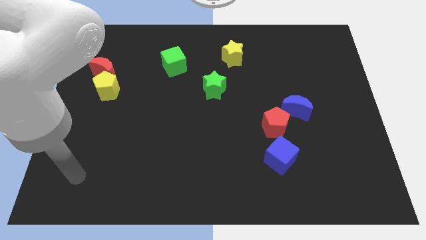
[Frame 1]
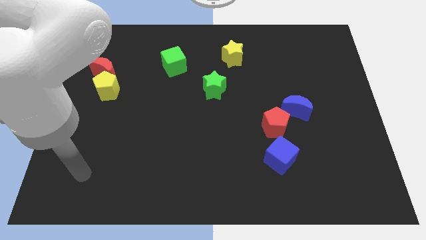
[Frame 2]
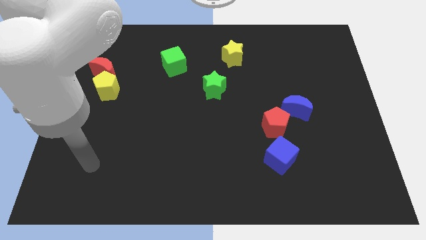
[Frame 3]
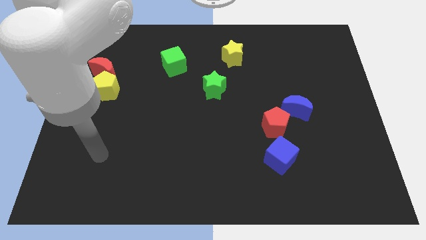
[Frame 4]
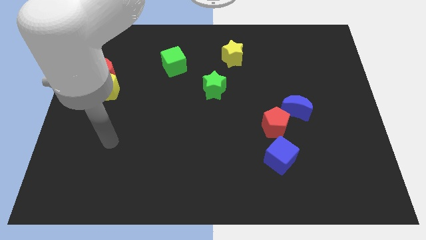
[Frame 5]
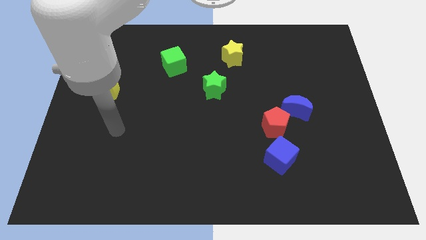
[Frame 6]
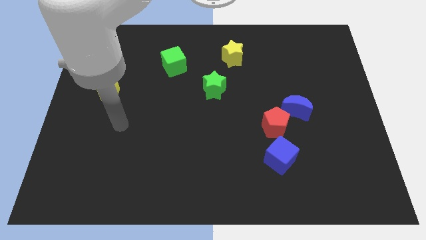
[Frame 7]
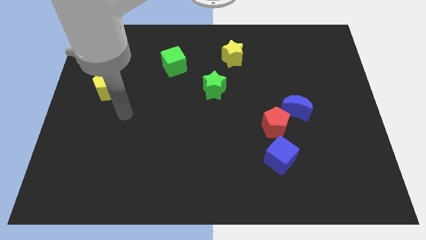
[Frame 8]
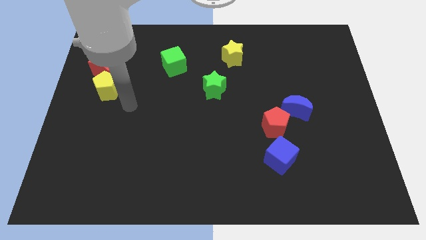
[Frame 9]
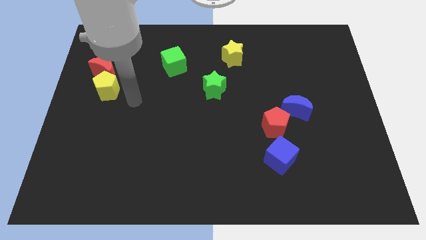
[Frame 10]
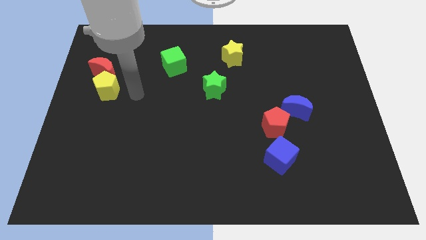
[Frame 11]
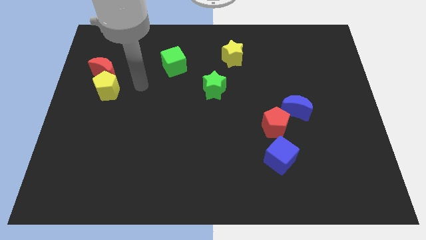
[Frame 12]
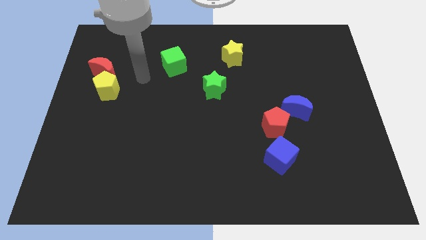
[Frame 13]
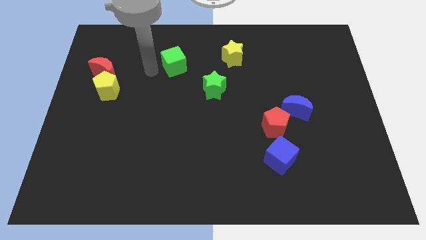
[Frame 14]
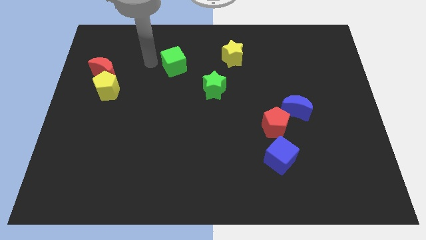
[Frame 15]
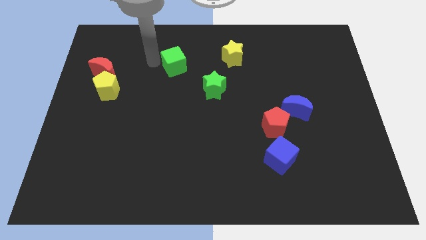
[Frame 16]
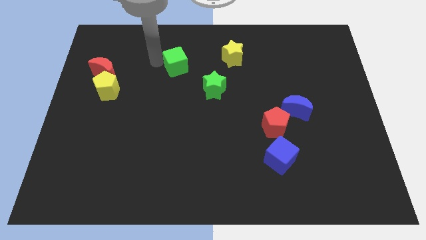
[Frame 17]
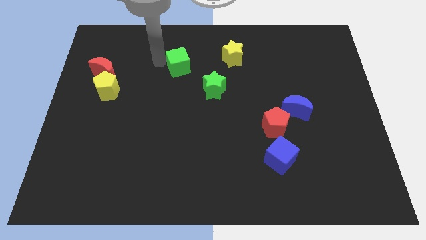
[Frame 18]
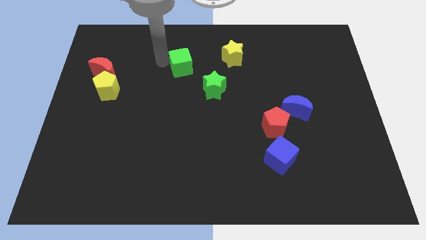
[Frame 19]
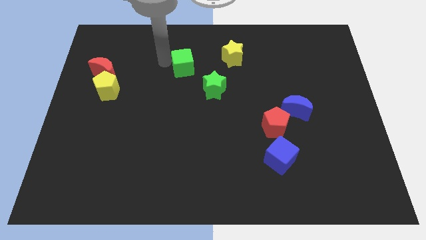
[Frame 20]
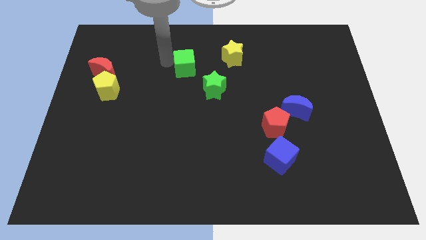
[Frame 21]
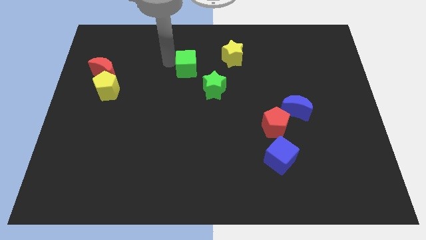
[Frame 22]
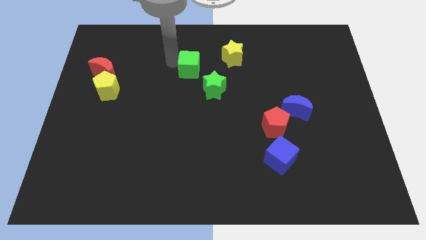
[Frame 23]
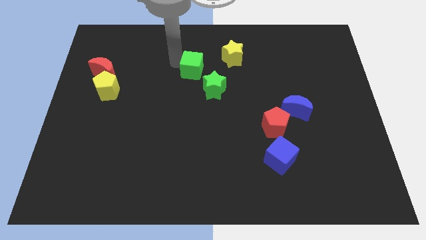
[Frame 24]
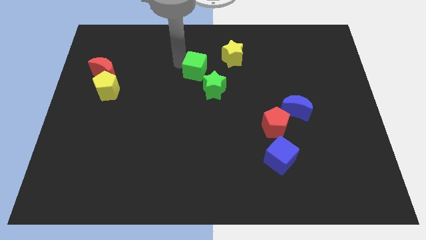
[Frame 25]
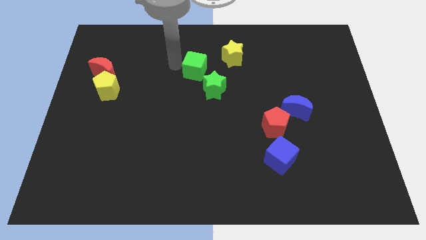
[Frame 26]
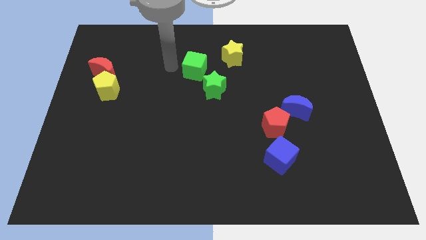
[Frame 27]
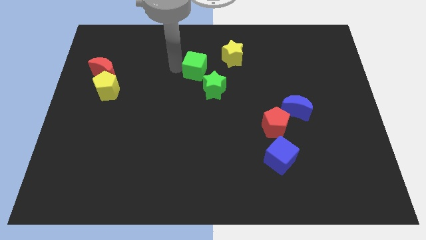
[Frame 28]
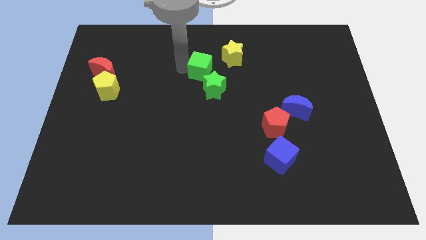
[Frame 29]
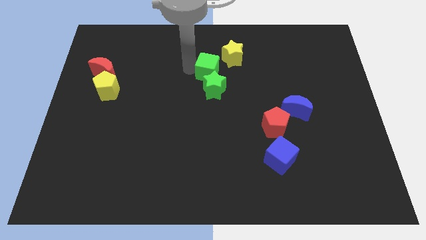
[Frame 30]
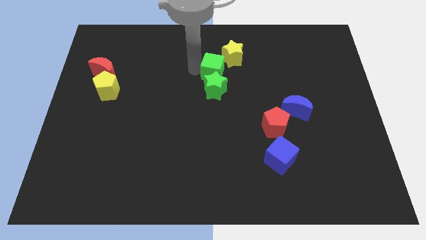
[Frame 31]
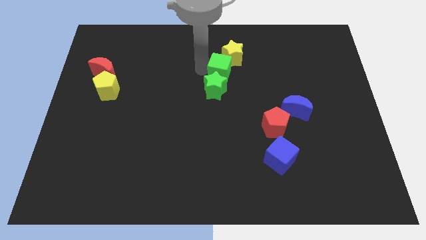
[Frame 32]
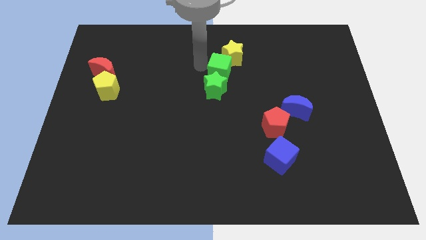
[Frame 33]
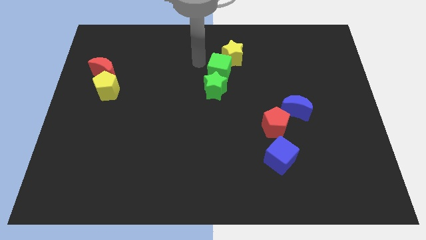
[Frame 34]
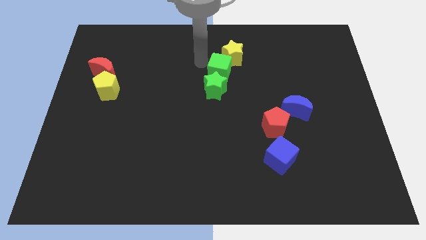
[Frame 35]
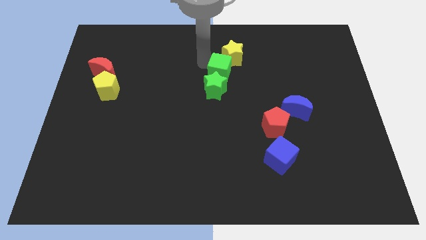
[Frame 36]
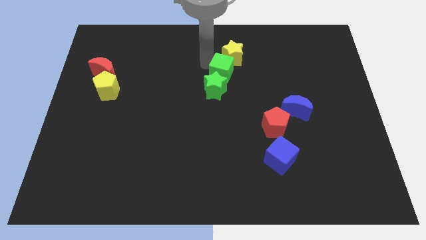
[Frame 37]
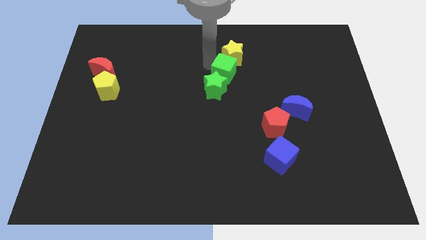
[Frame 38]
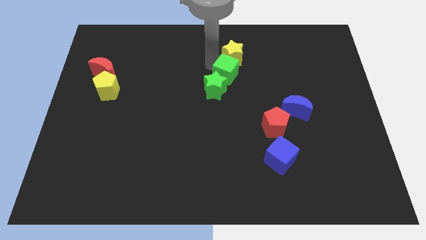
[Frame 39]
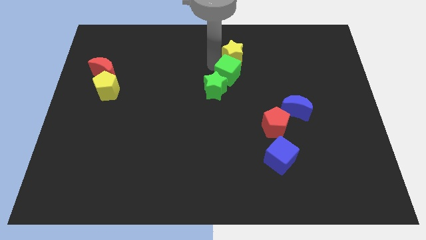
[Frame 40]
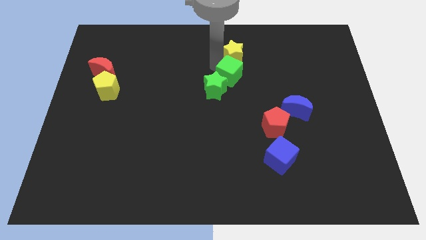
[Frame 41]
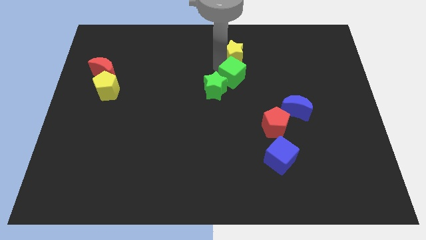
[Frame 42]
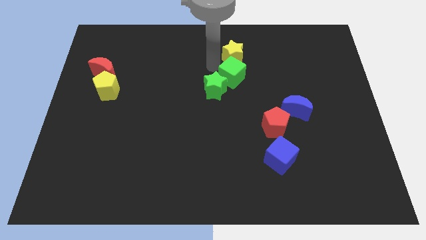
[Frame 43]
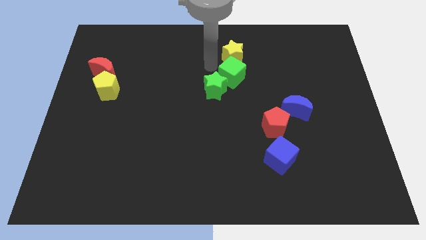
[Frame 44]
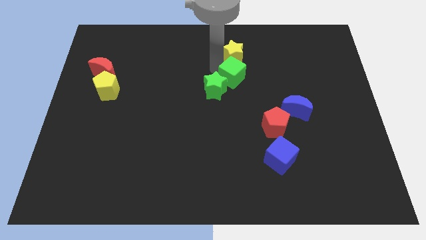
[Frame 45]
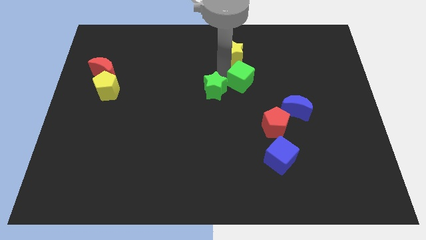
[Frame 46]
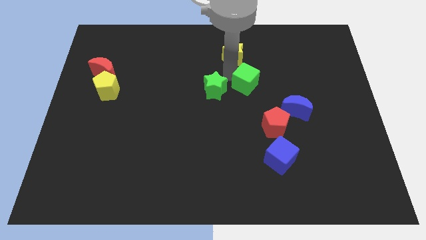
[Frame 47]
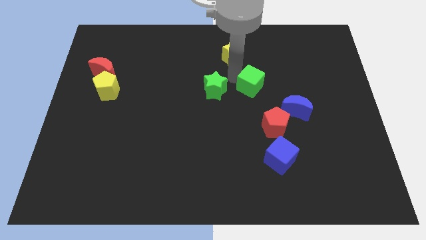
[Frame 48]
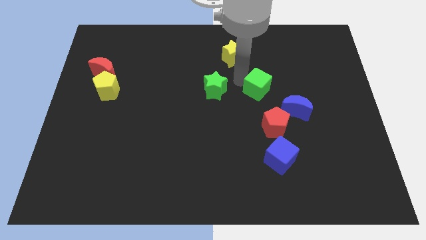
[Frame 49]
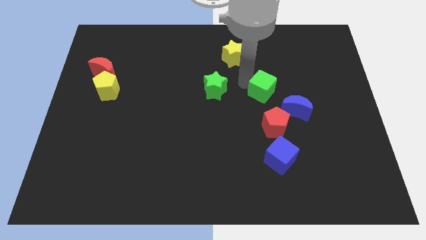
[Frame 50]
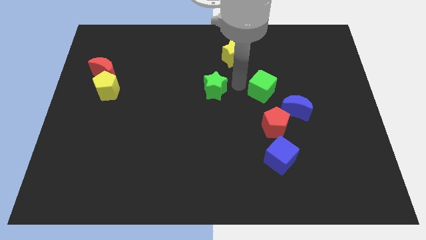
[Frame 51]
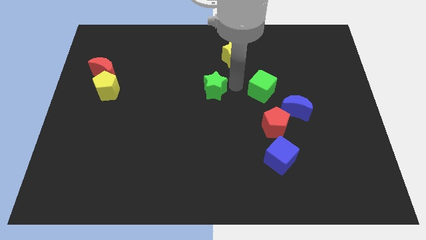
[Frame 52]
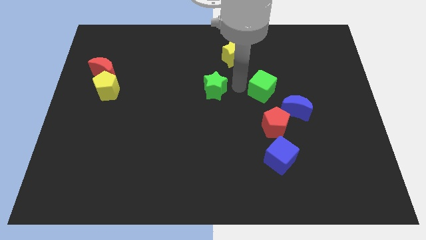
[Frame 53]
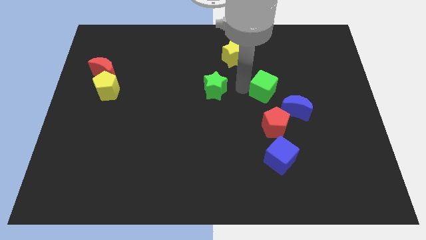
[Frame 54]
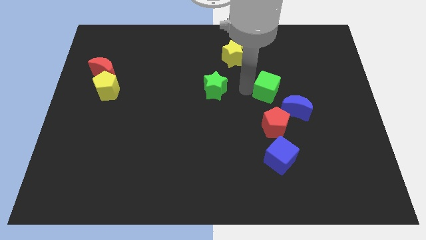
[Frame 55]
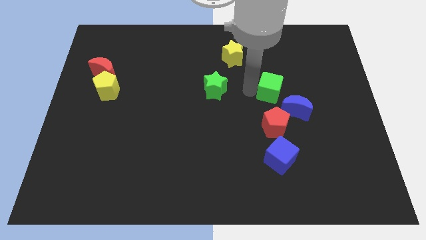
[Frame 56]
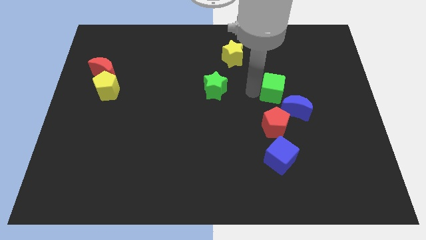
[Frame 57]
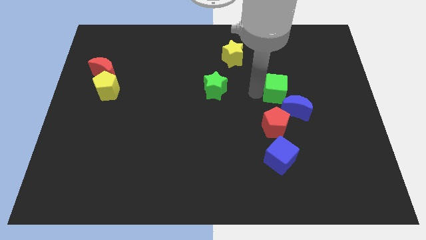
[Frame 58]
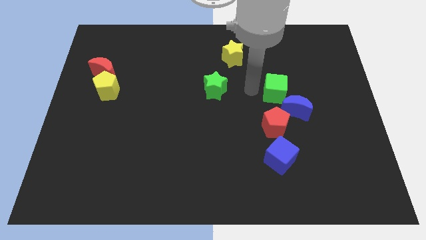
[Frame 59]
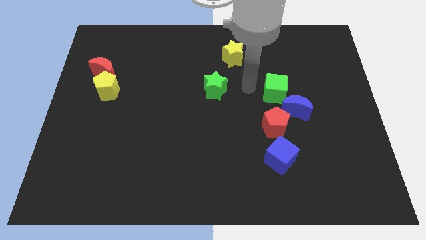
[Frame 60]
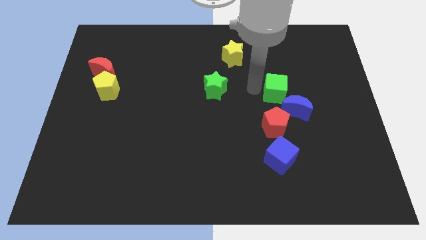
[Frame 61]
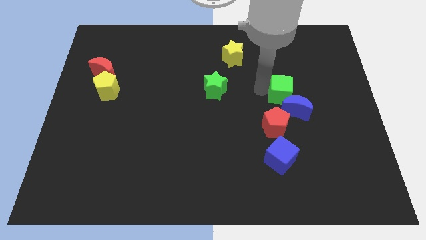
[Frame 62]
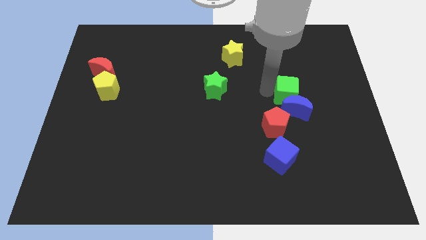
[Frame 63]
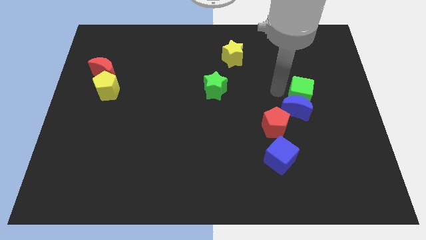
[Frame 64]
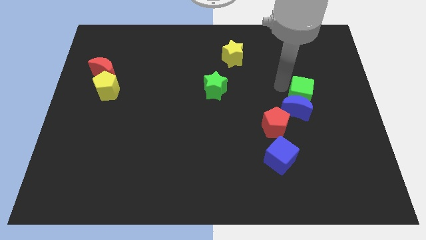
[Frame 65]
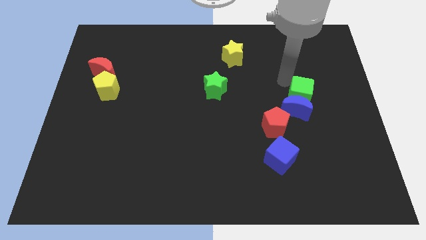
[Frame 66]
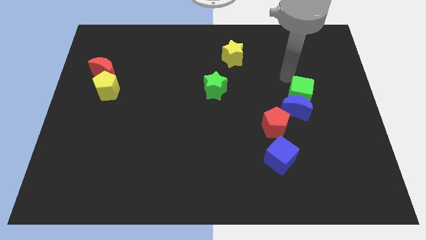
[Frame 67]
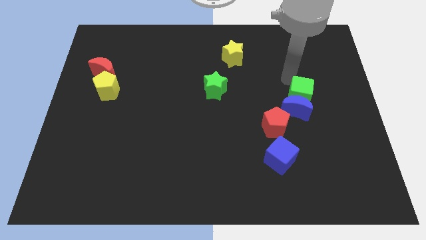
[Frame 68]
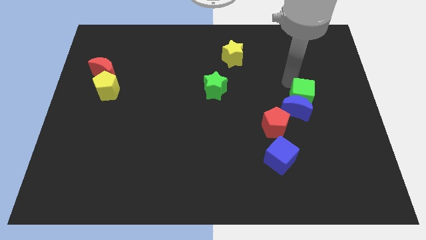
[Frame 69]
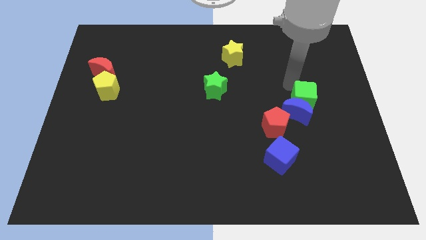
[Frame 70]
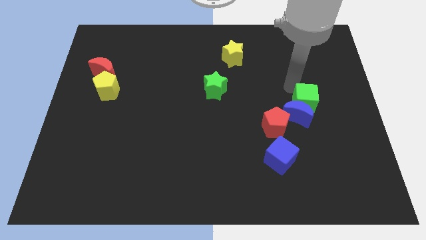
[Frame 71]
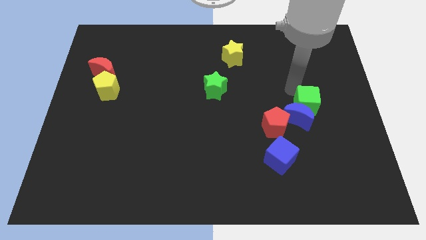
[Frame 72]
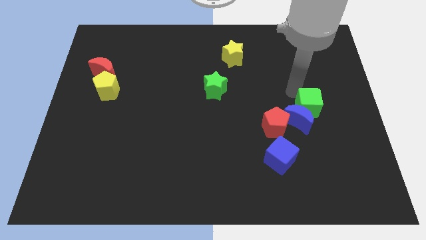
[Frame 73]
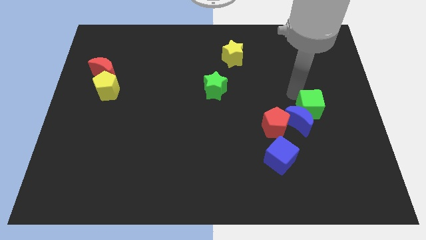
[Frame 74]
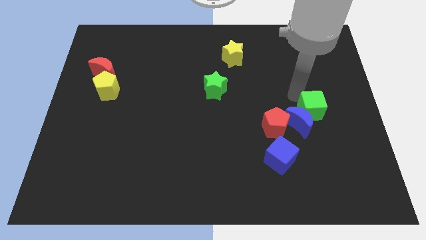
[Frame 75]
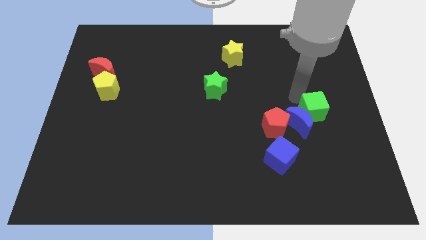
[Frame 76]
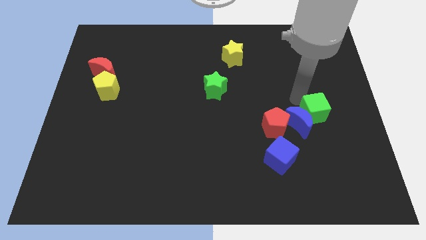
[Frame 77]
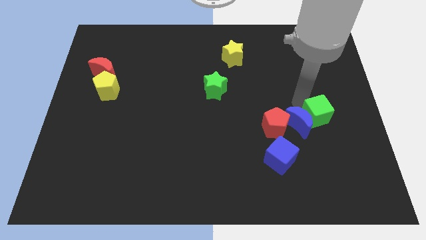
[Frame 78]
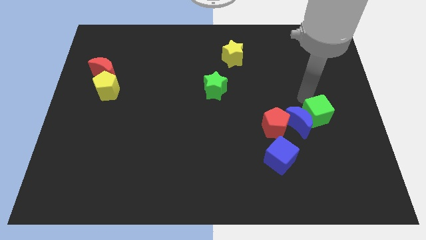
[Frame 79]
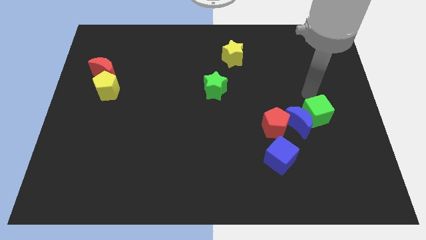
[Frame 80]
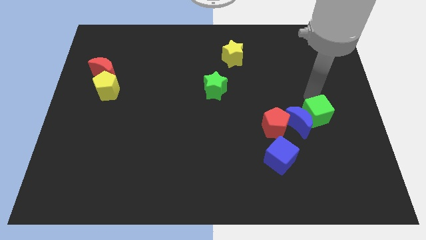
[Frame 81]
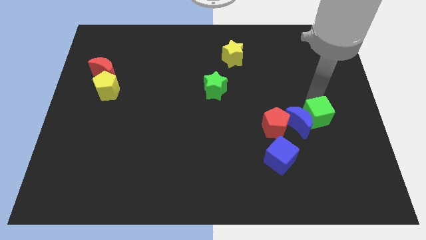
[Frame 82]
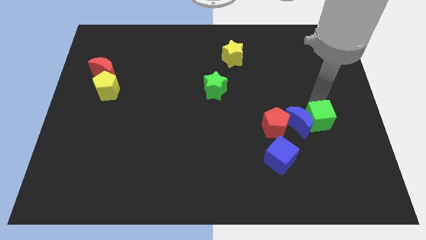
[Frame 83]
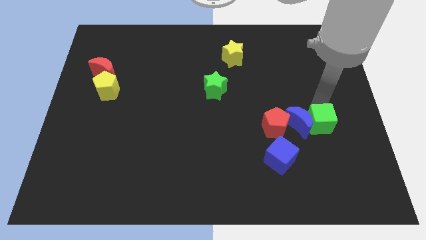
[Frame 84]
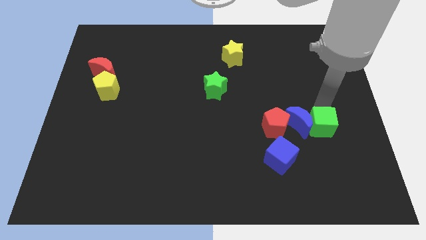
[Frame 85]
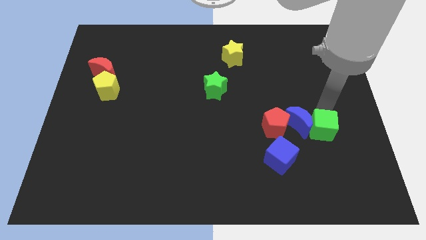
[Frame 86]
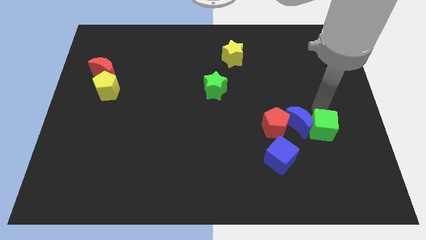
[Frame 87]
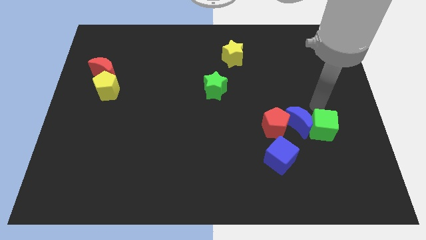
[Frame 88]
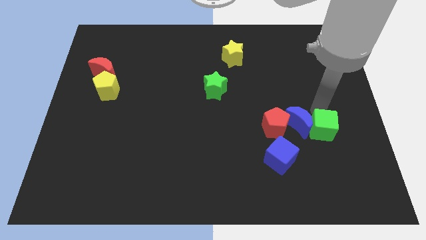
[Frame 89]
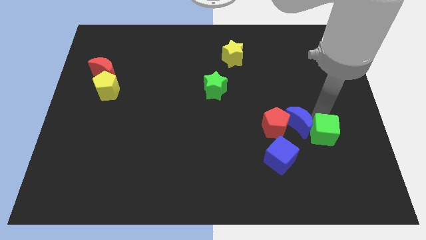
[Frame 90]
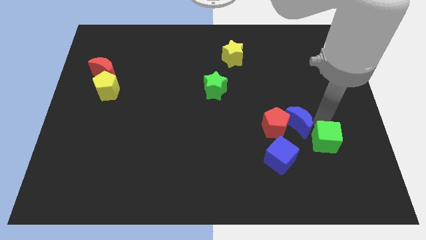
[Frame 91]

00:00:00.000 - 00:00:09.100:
put the green cube to the right of the blue cube
